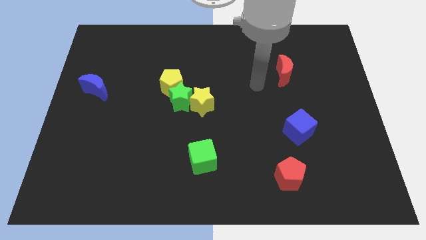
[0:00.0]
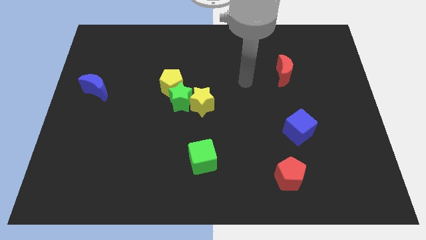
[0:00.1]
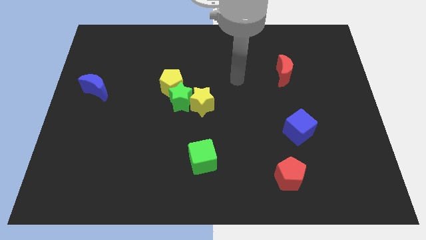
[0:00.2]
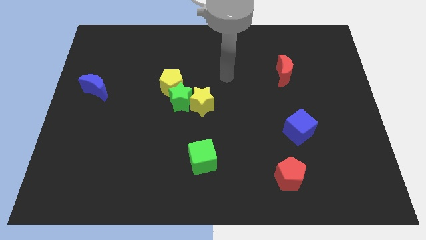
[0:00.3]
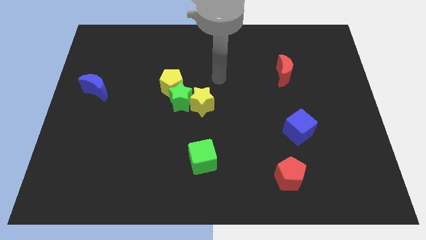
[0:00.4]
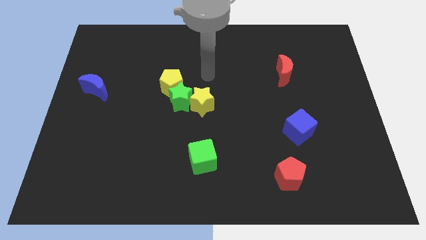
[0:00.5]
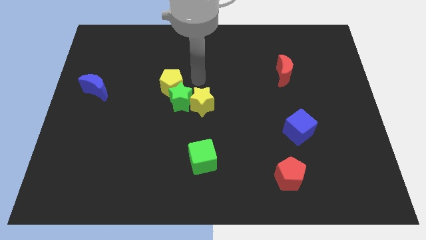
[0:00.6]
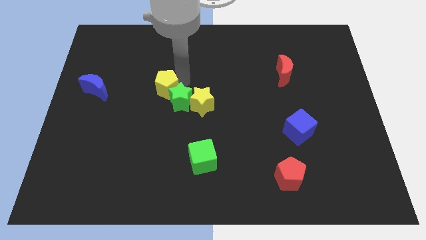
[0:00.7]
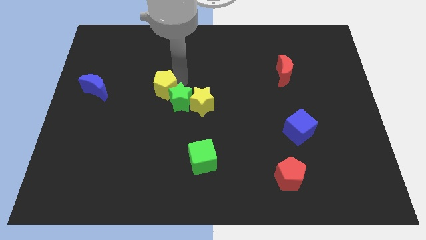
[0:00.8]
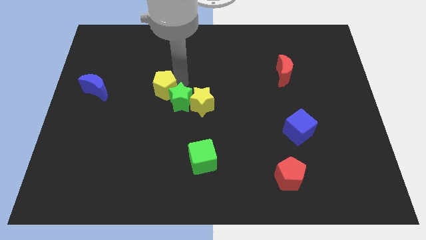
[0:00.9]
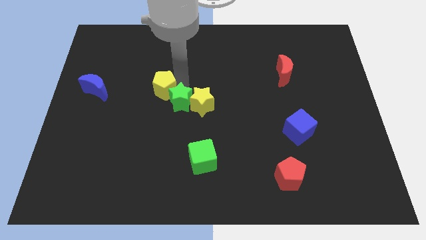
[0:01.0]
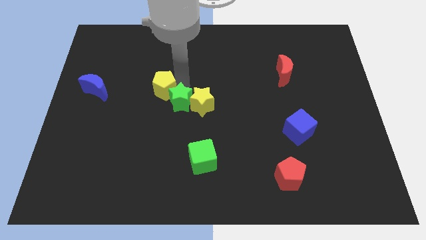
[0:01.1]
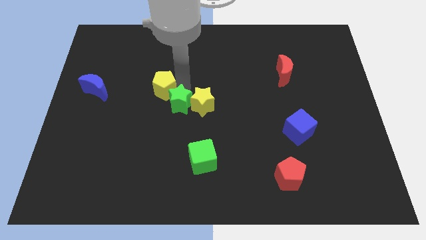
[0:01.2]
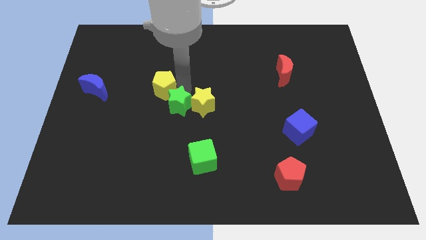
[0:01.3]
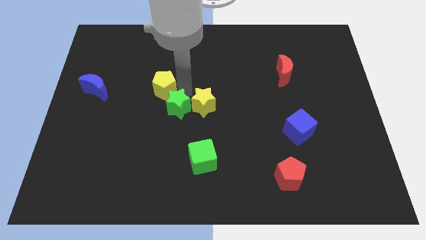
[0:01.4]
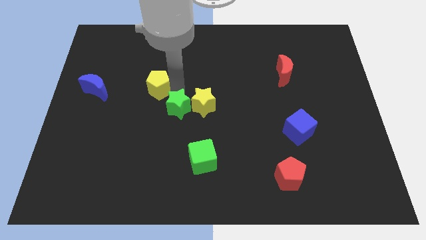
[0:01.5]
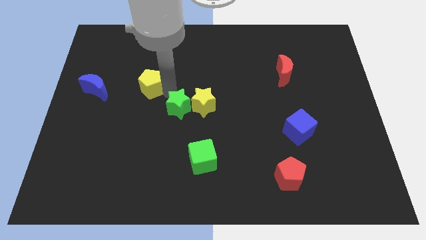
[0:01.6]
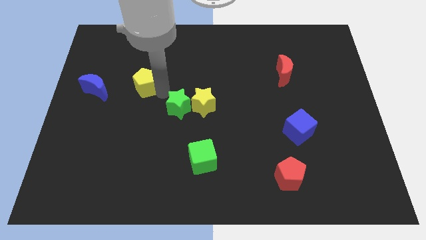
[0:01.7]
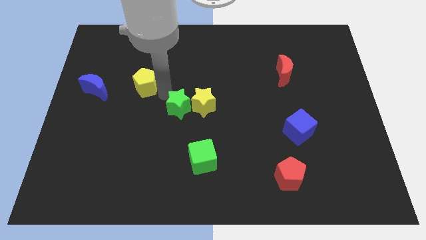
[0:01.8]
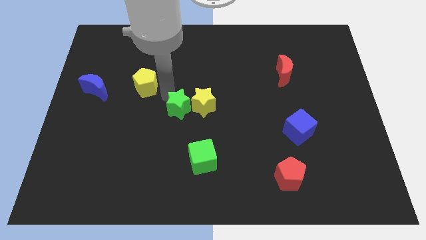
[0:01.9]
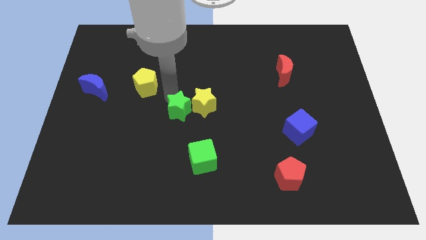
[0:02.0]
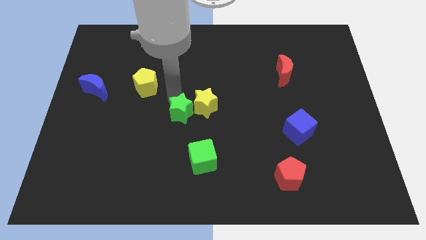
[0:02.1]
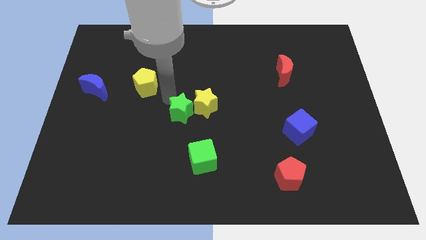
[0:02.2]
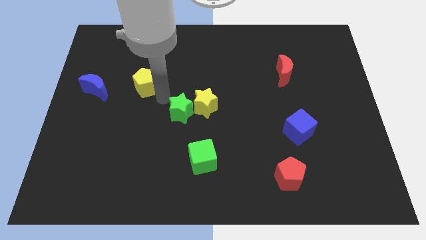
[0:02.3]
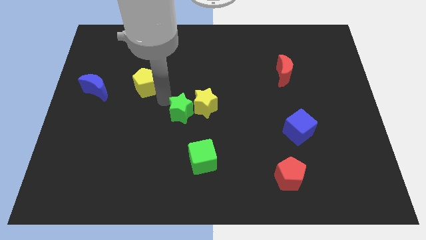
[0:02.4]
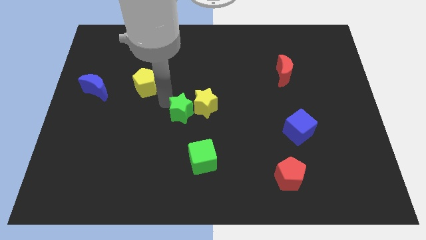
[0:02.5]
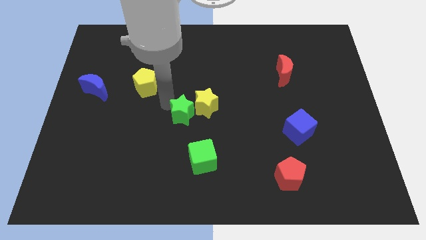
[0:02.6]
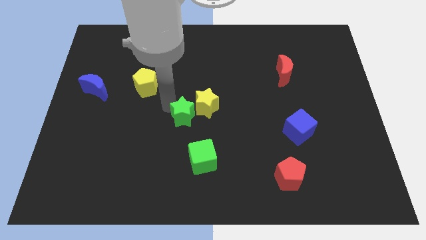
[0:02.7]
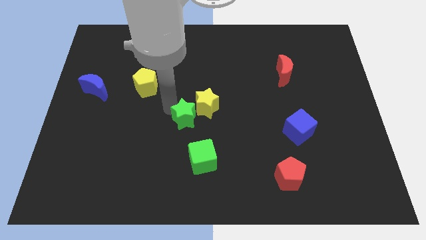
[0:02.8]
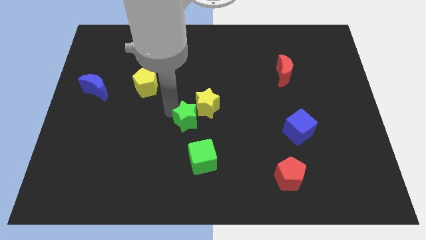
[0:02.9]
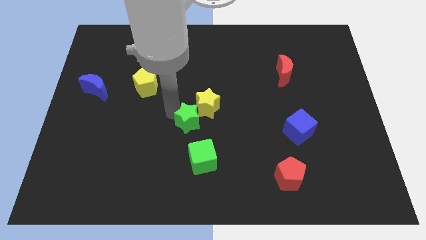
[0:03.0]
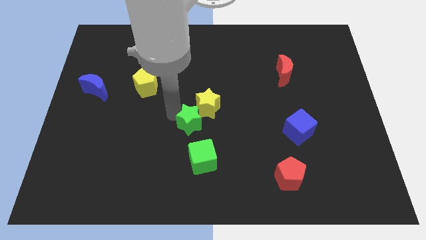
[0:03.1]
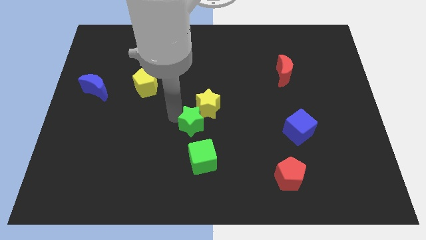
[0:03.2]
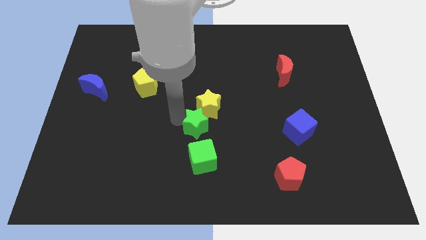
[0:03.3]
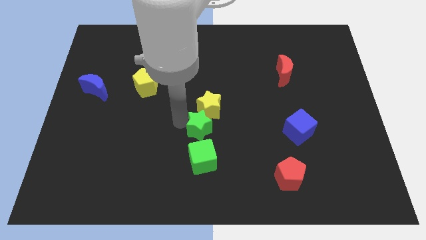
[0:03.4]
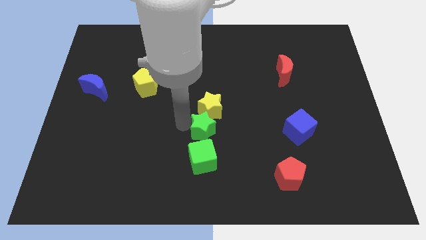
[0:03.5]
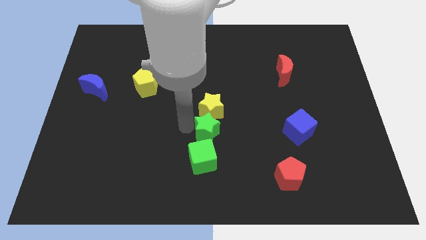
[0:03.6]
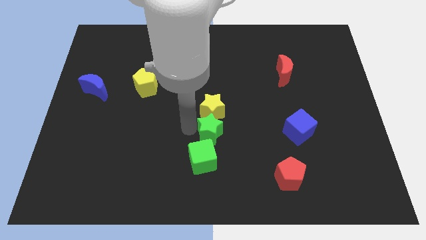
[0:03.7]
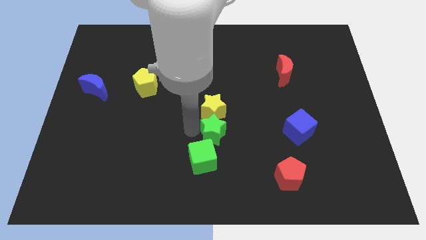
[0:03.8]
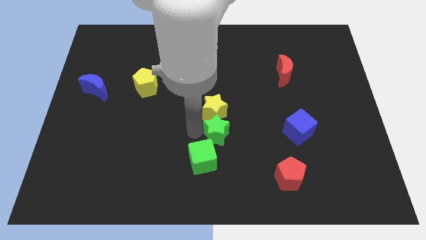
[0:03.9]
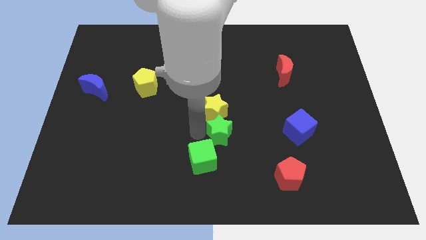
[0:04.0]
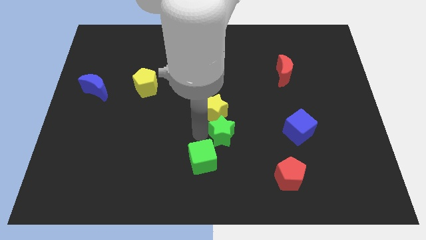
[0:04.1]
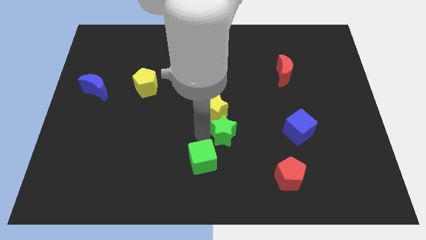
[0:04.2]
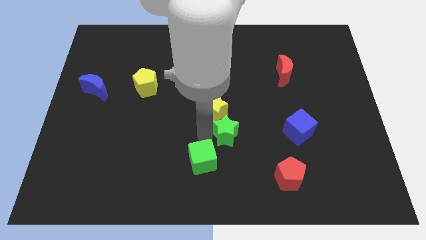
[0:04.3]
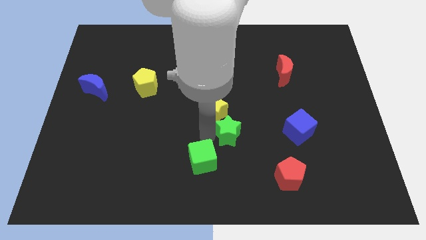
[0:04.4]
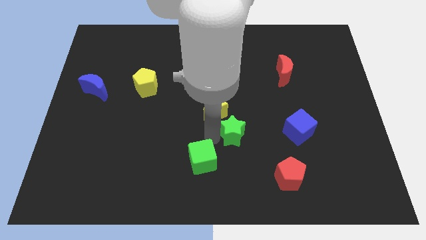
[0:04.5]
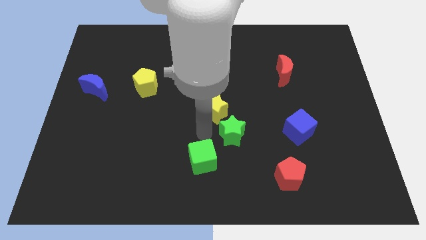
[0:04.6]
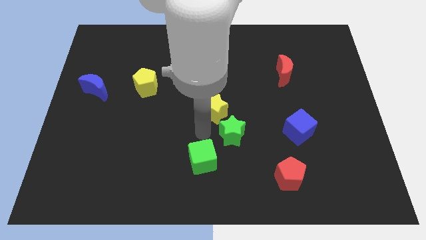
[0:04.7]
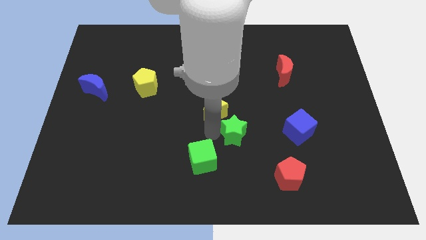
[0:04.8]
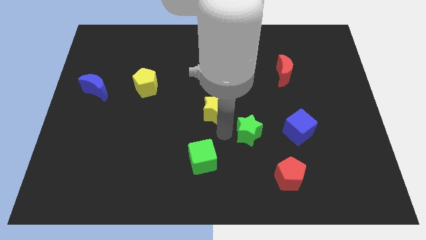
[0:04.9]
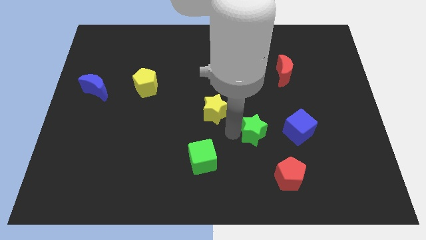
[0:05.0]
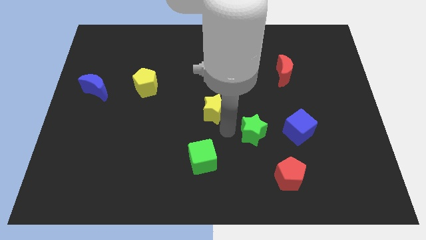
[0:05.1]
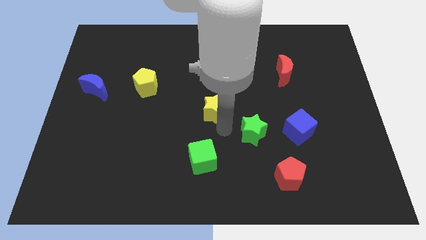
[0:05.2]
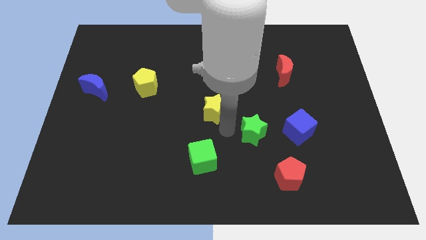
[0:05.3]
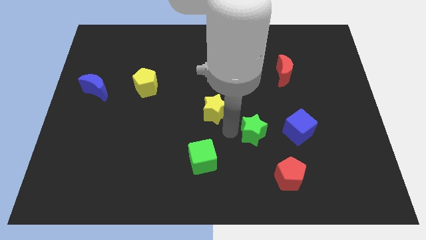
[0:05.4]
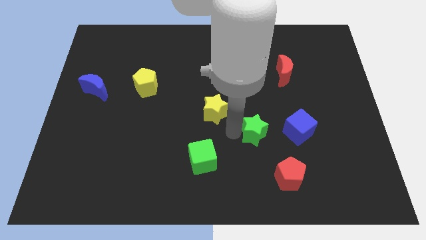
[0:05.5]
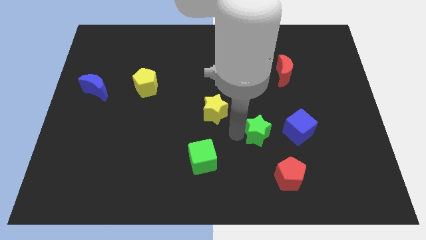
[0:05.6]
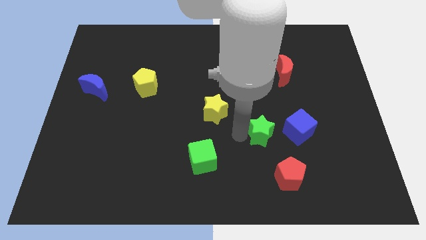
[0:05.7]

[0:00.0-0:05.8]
put the green star above the red pentagon

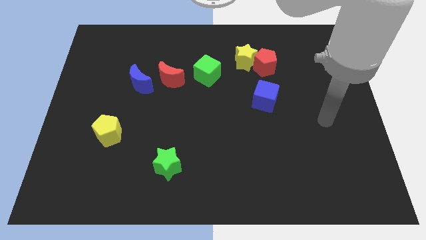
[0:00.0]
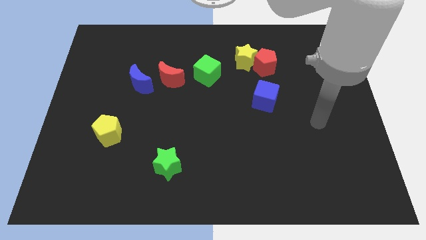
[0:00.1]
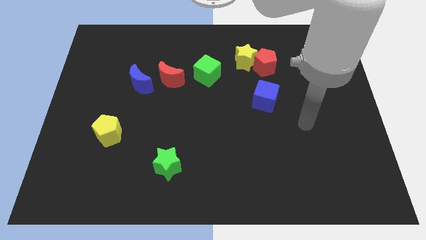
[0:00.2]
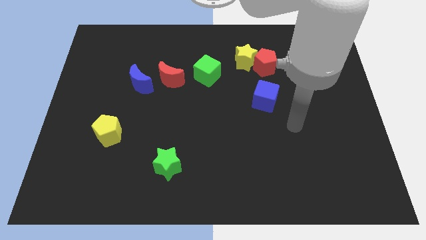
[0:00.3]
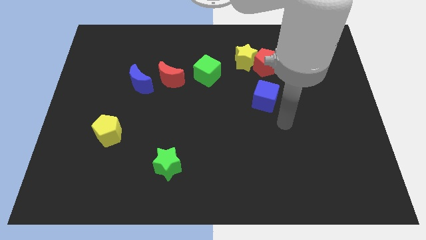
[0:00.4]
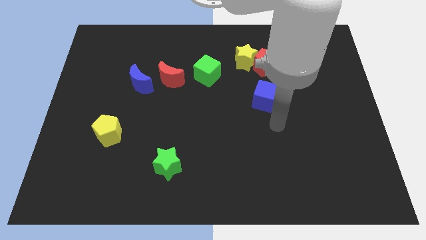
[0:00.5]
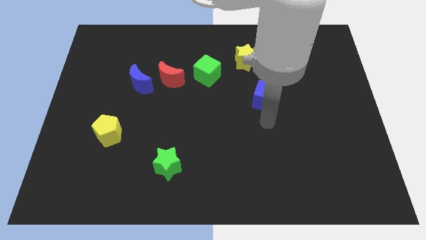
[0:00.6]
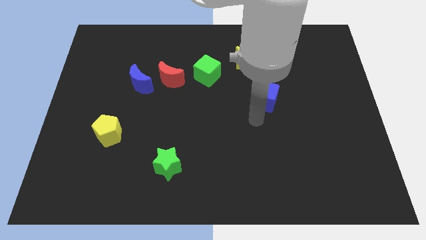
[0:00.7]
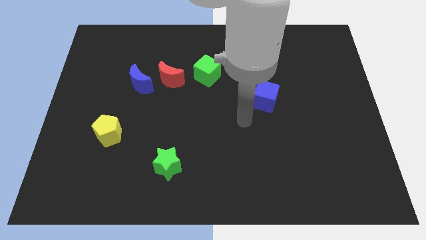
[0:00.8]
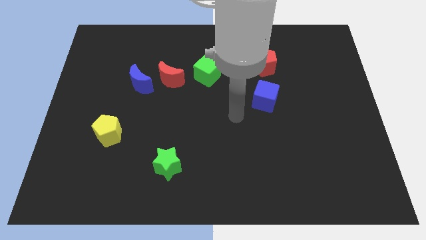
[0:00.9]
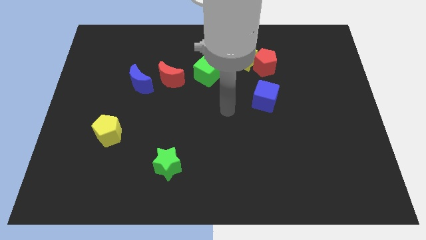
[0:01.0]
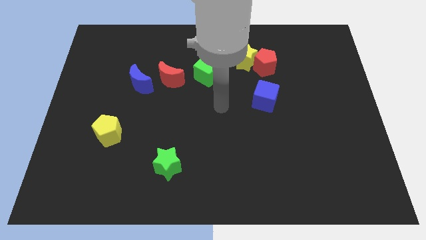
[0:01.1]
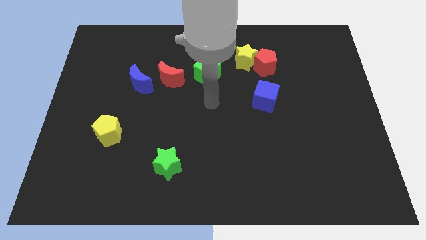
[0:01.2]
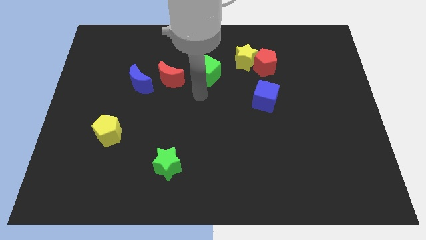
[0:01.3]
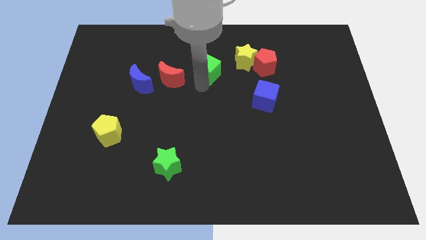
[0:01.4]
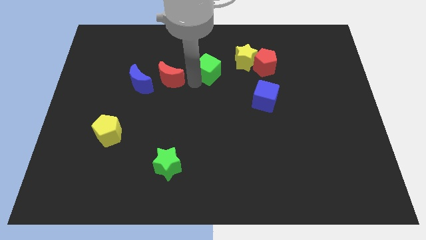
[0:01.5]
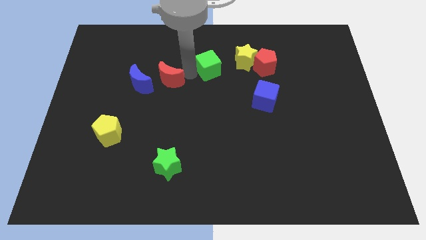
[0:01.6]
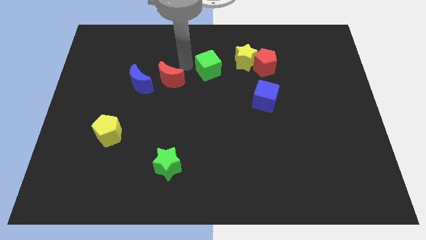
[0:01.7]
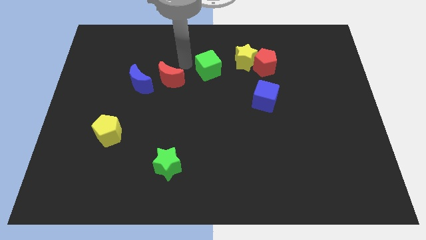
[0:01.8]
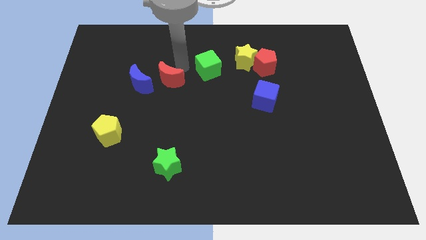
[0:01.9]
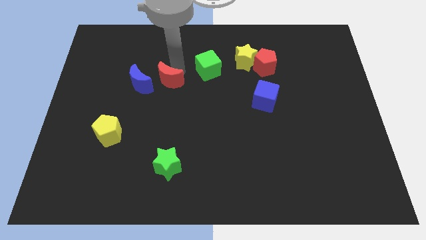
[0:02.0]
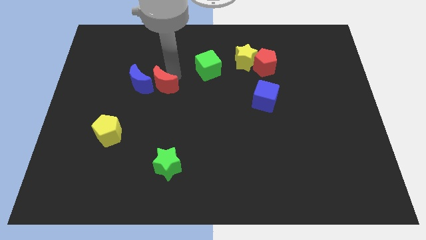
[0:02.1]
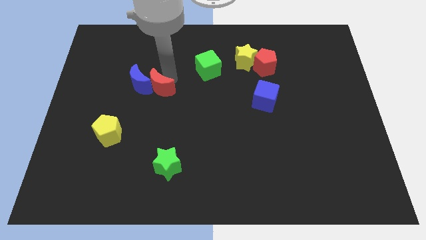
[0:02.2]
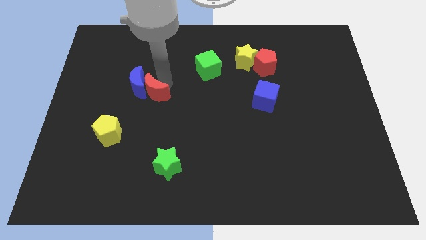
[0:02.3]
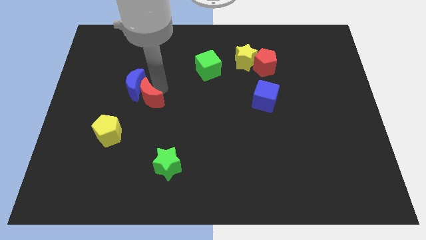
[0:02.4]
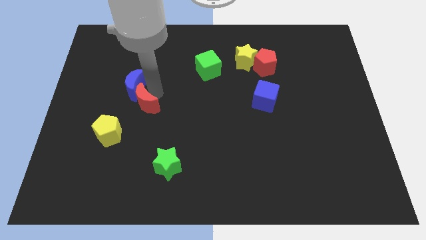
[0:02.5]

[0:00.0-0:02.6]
push the red moon to the top right side of the yellow pentagon
